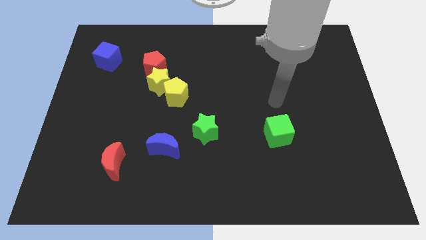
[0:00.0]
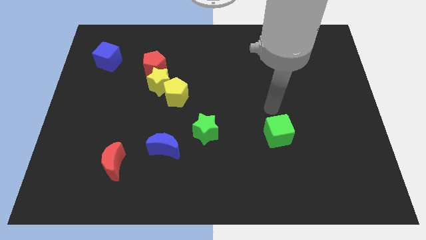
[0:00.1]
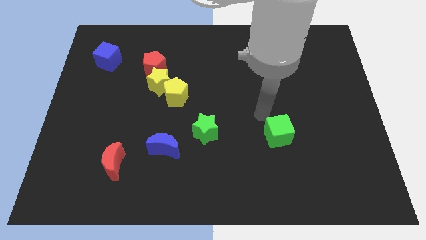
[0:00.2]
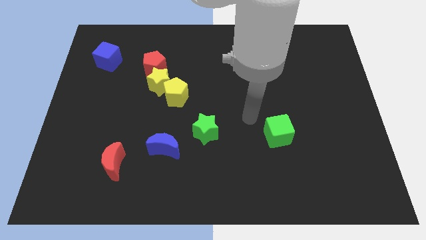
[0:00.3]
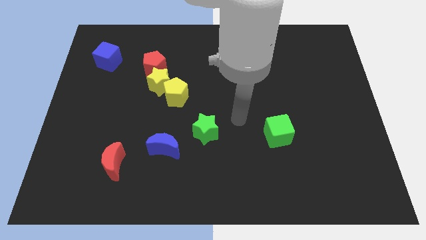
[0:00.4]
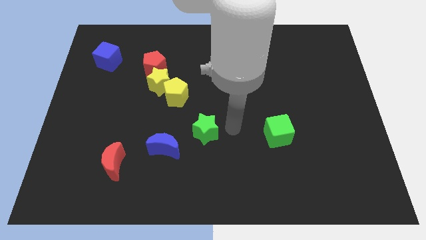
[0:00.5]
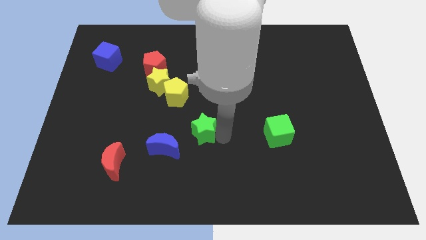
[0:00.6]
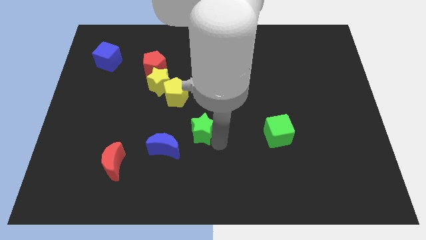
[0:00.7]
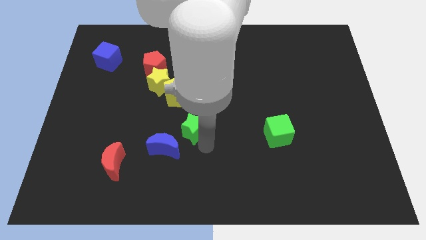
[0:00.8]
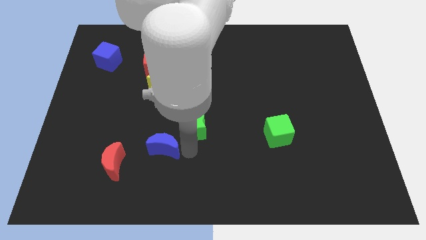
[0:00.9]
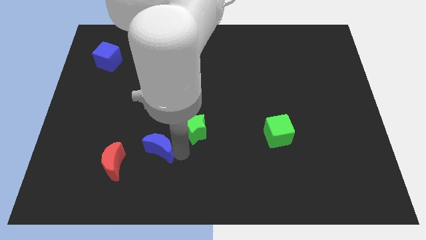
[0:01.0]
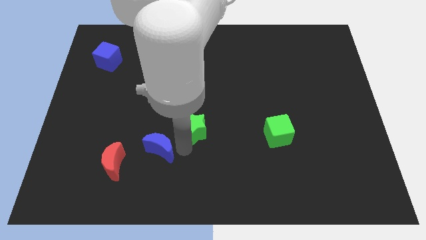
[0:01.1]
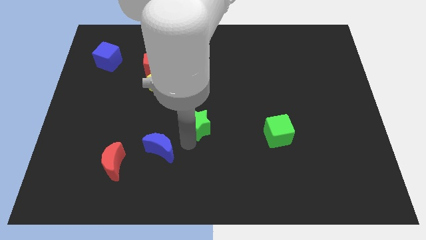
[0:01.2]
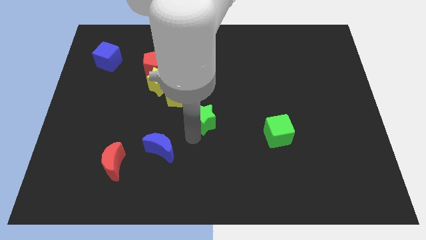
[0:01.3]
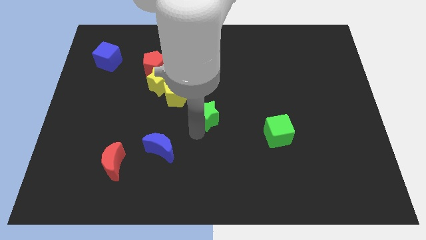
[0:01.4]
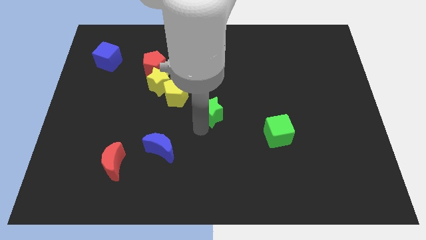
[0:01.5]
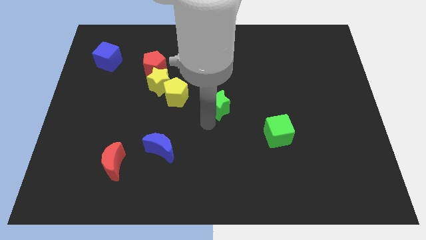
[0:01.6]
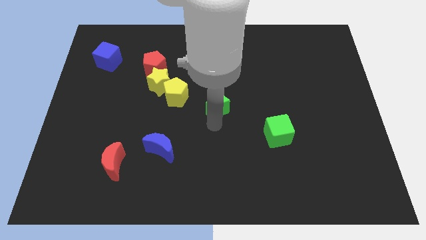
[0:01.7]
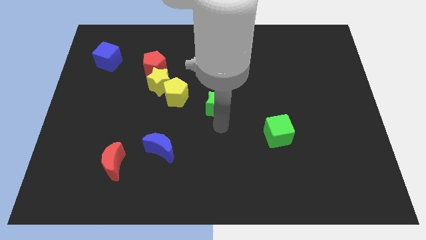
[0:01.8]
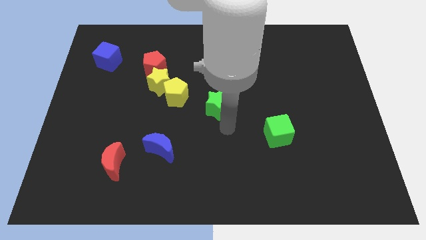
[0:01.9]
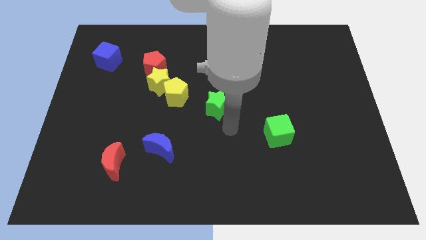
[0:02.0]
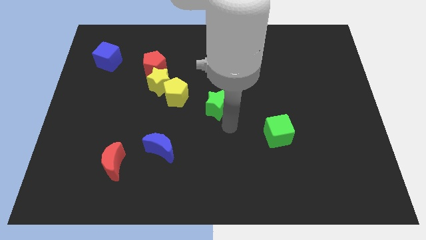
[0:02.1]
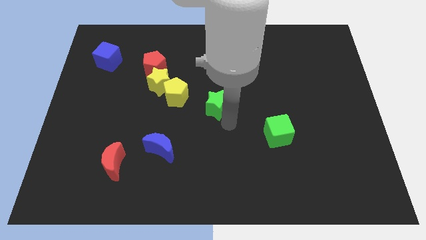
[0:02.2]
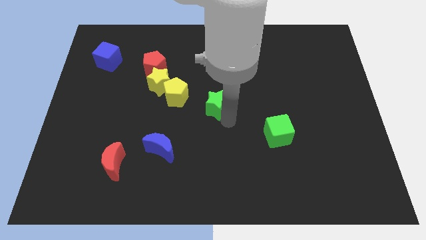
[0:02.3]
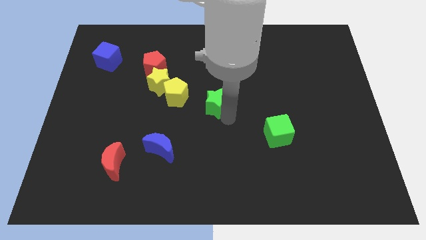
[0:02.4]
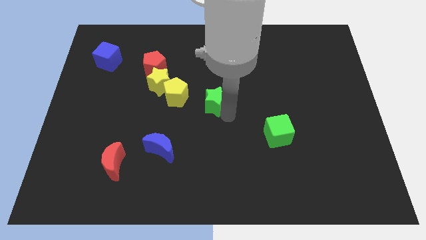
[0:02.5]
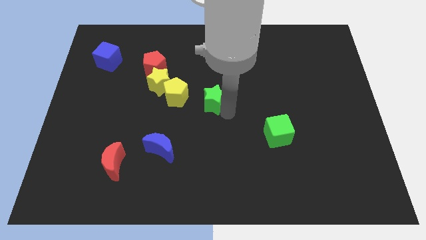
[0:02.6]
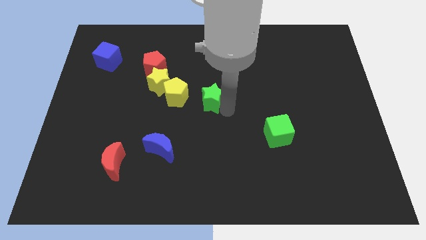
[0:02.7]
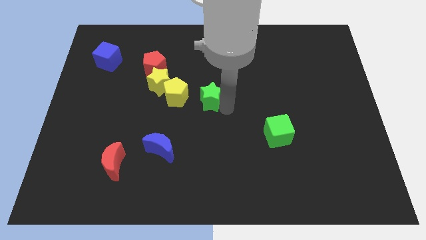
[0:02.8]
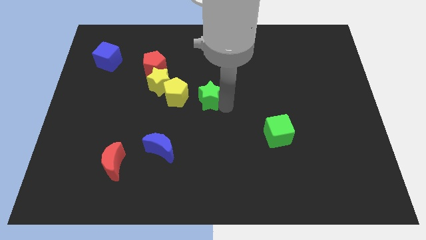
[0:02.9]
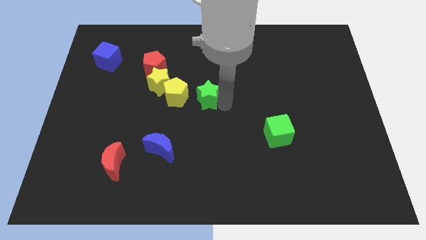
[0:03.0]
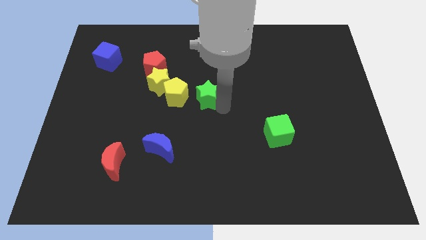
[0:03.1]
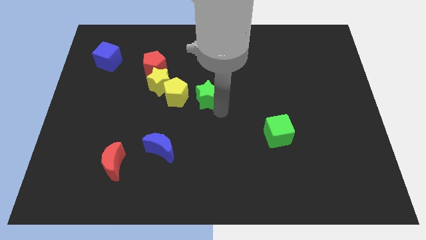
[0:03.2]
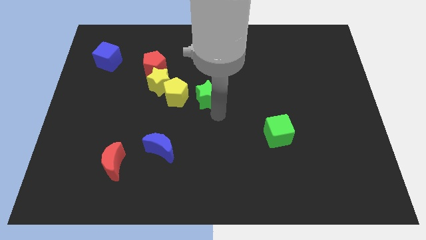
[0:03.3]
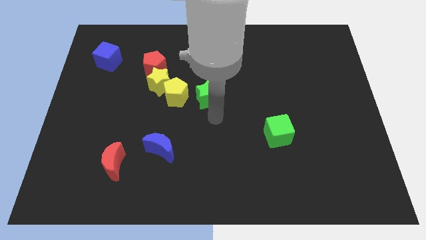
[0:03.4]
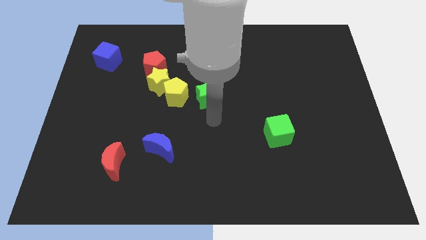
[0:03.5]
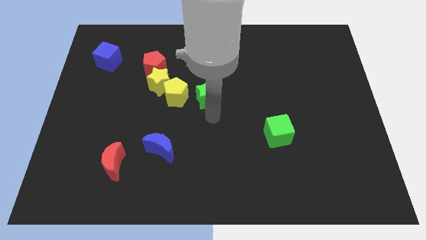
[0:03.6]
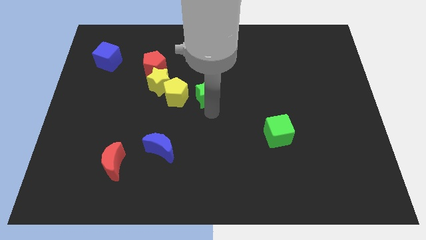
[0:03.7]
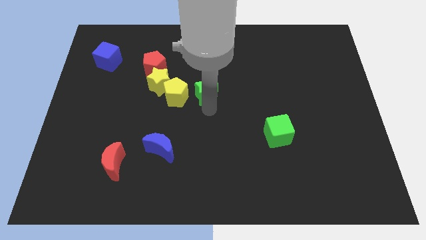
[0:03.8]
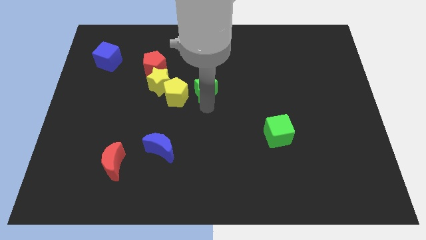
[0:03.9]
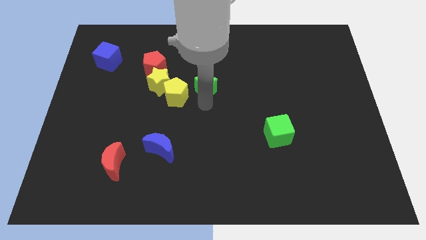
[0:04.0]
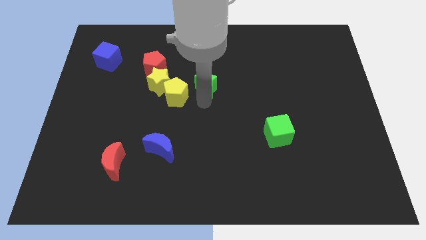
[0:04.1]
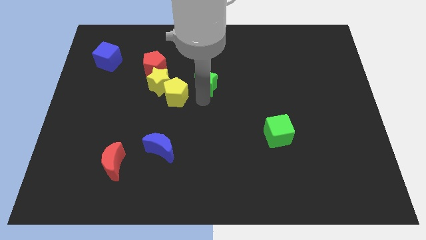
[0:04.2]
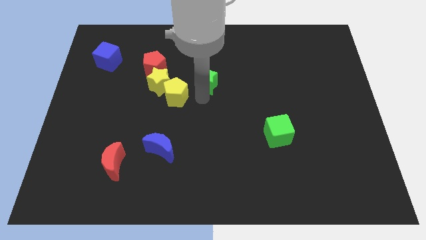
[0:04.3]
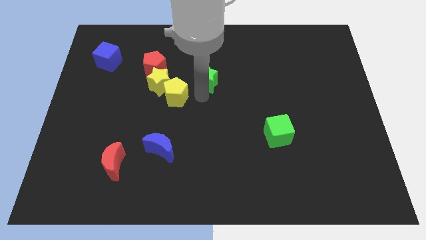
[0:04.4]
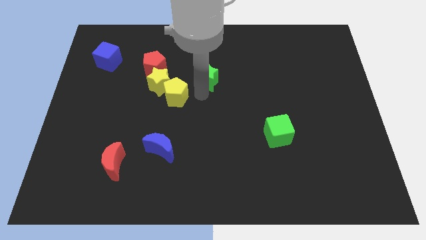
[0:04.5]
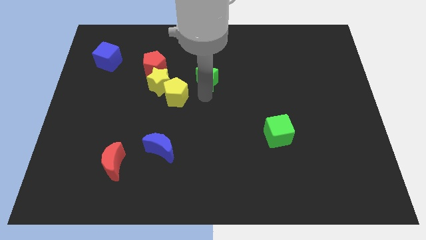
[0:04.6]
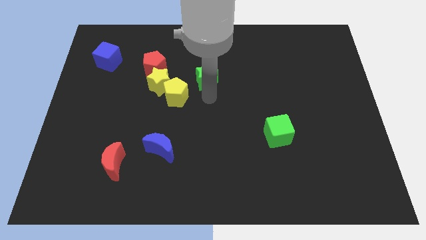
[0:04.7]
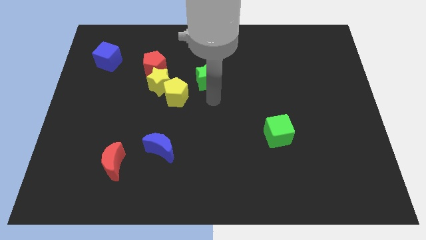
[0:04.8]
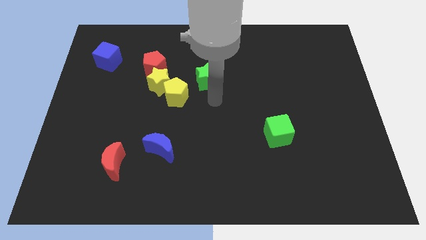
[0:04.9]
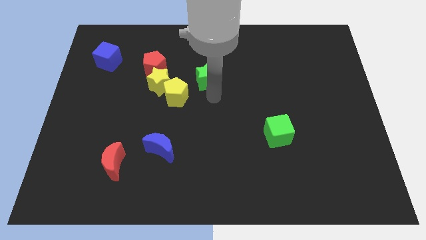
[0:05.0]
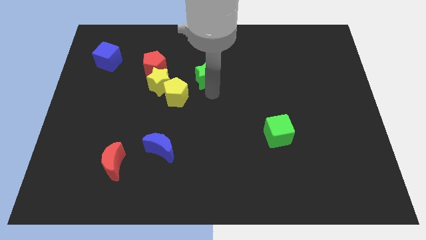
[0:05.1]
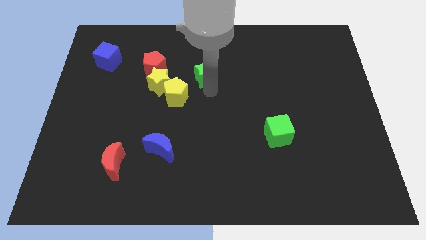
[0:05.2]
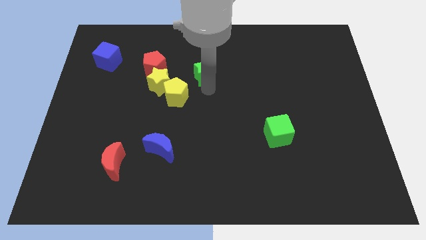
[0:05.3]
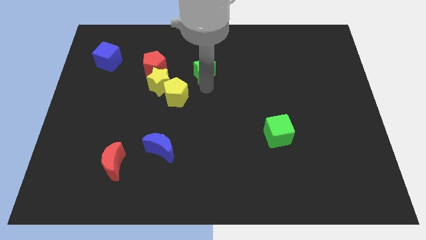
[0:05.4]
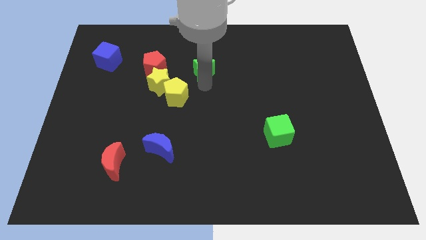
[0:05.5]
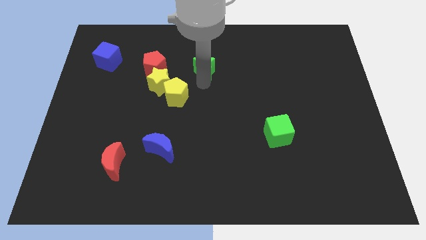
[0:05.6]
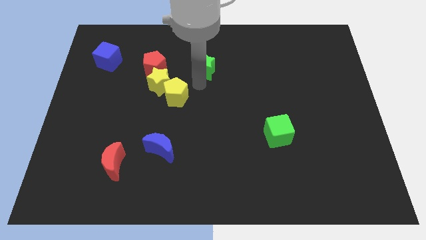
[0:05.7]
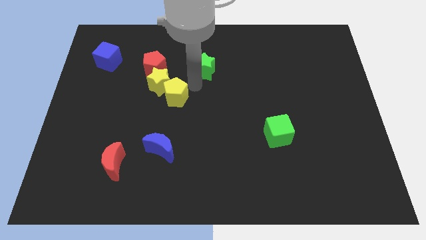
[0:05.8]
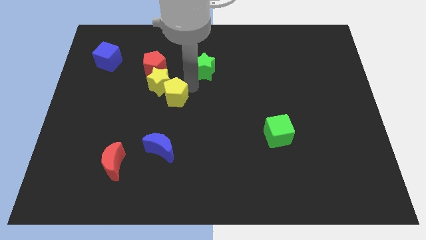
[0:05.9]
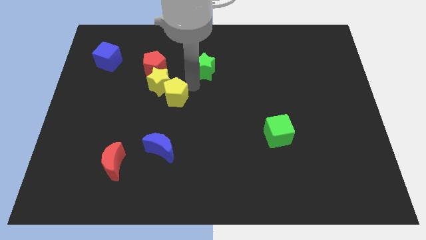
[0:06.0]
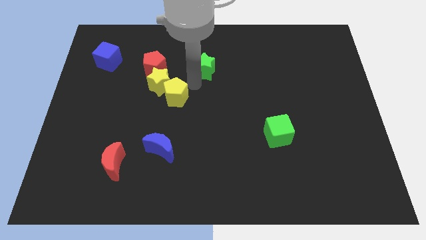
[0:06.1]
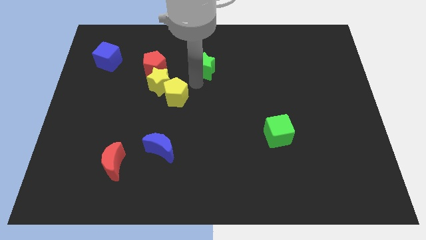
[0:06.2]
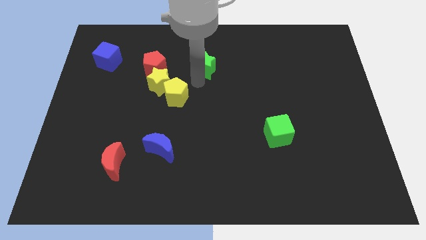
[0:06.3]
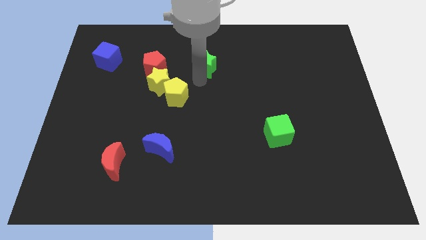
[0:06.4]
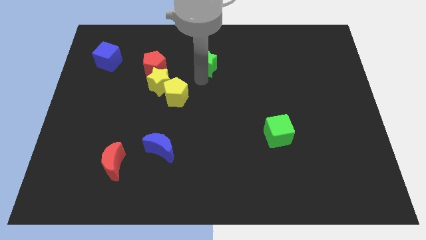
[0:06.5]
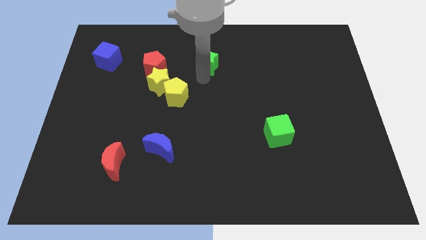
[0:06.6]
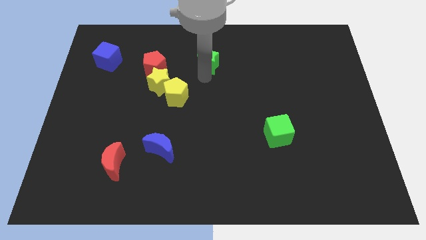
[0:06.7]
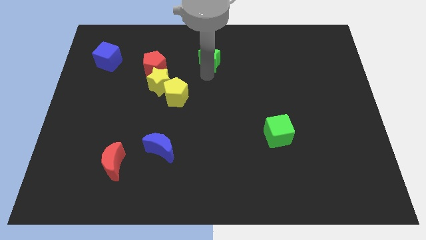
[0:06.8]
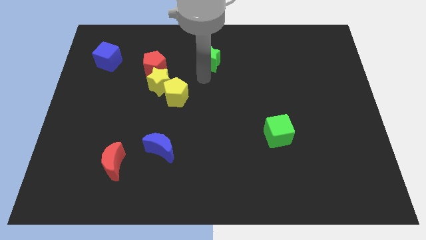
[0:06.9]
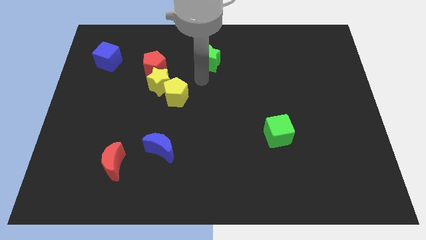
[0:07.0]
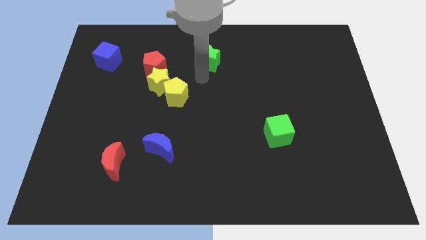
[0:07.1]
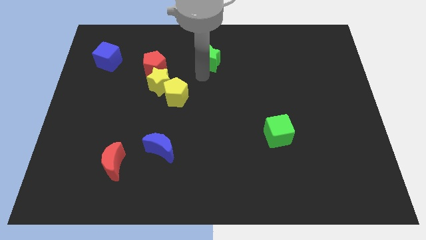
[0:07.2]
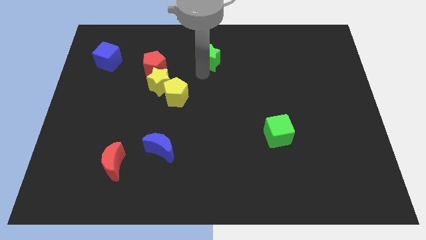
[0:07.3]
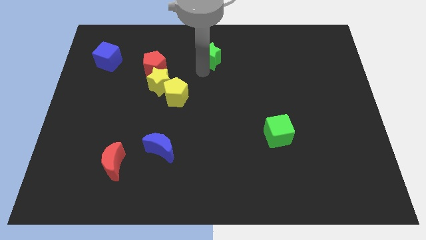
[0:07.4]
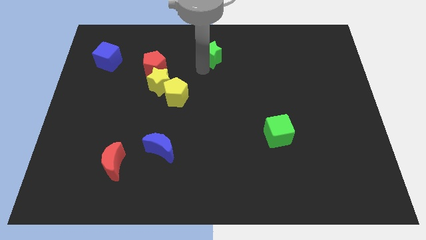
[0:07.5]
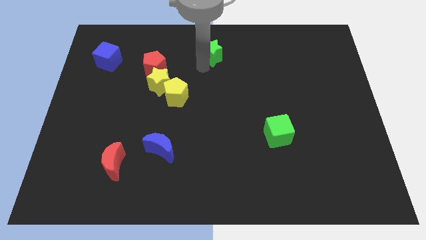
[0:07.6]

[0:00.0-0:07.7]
put the green star to the top

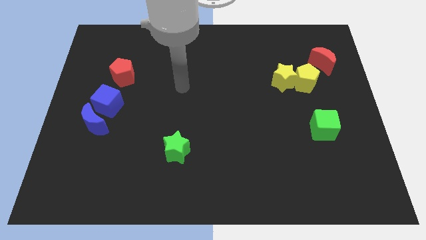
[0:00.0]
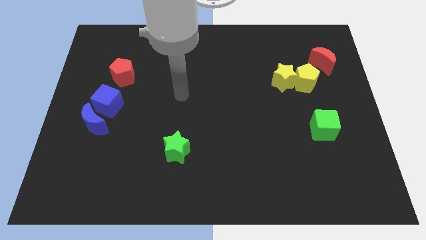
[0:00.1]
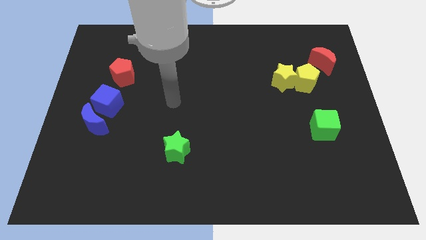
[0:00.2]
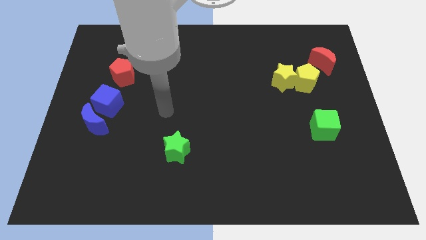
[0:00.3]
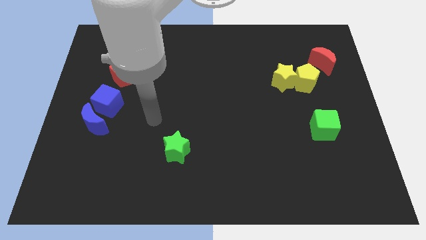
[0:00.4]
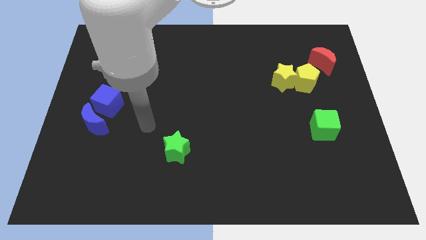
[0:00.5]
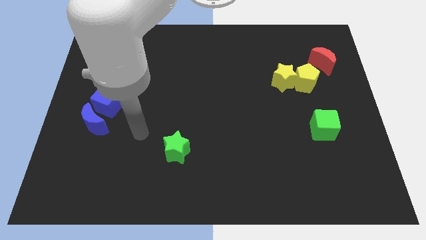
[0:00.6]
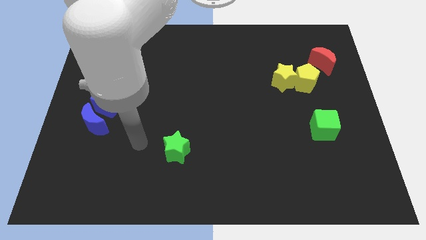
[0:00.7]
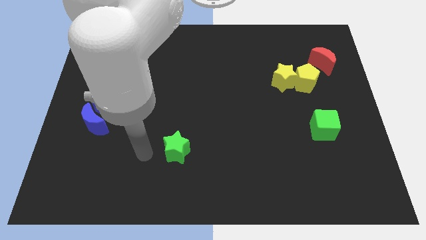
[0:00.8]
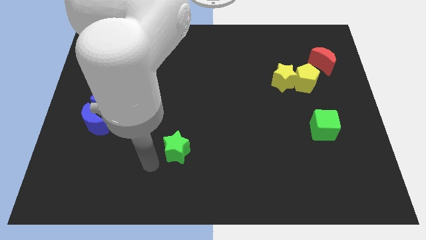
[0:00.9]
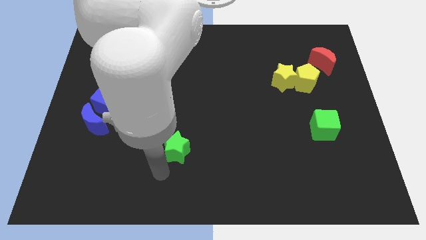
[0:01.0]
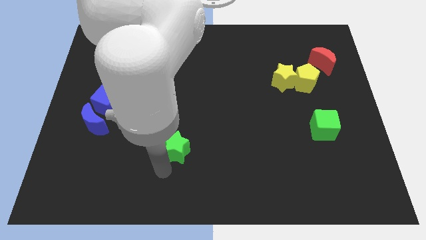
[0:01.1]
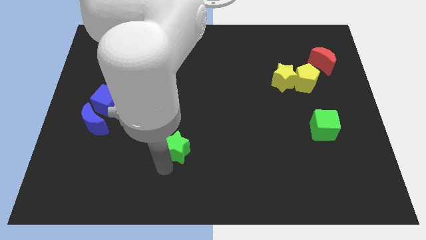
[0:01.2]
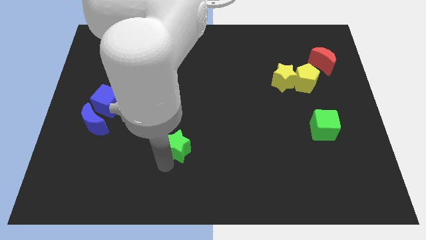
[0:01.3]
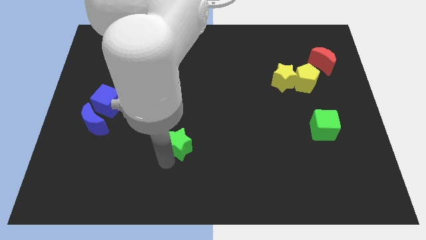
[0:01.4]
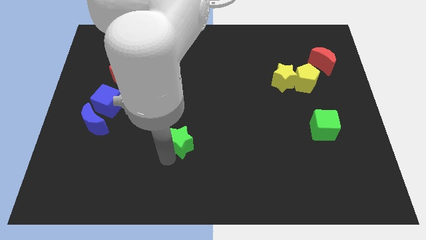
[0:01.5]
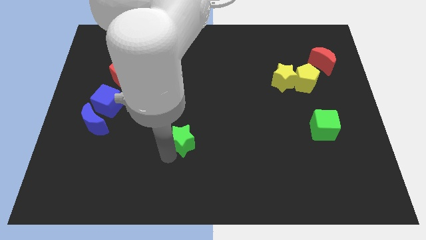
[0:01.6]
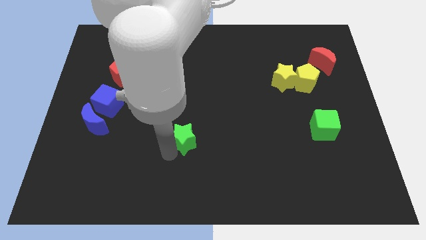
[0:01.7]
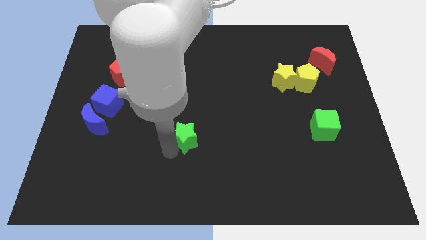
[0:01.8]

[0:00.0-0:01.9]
push the green star to the middle
